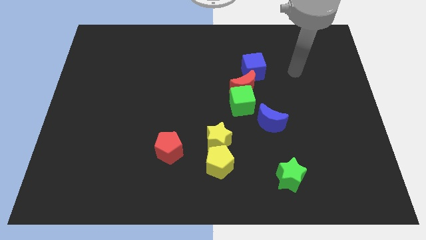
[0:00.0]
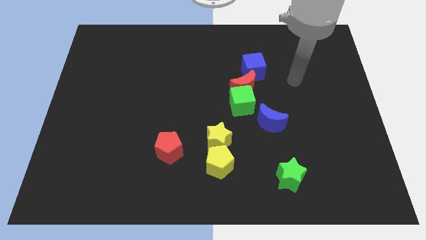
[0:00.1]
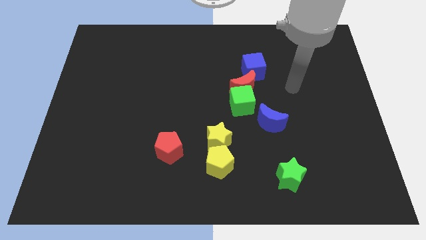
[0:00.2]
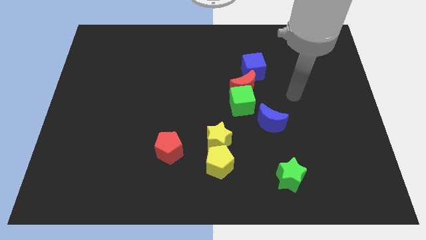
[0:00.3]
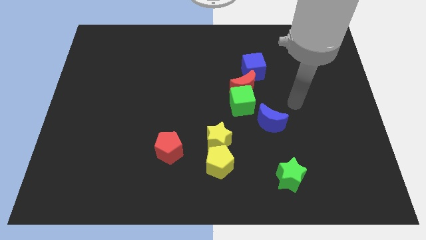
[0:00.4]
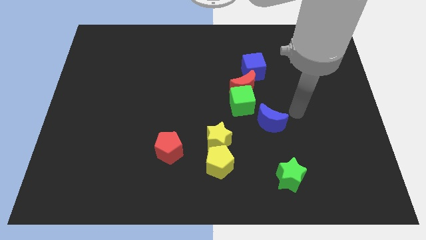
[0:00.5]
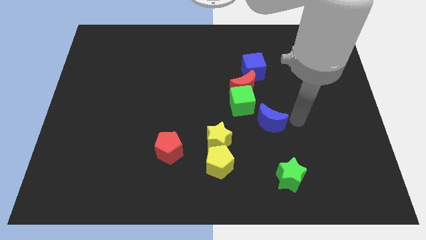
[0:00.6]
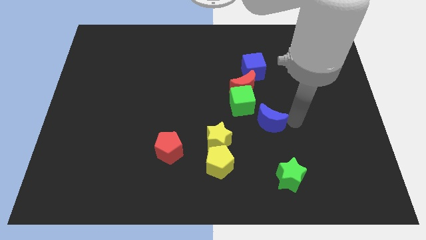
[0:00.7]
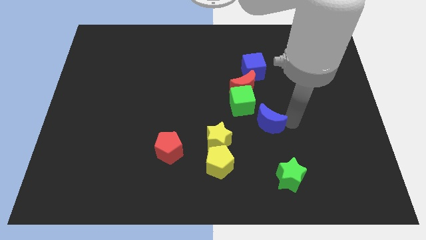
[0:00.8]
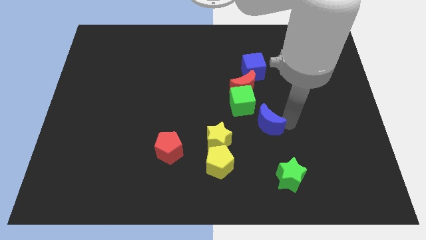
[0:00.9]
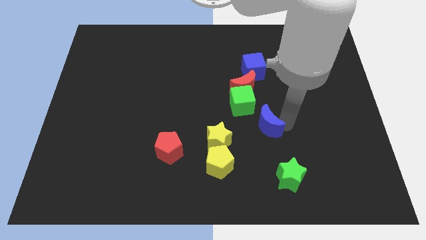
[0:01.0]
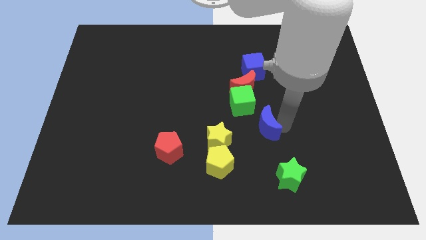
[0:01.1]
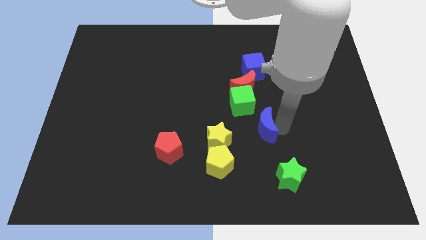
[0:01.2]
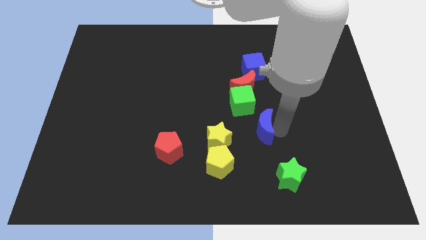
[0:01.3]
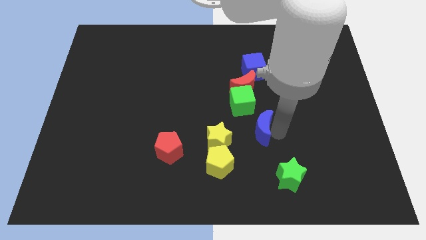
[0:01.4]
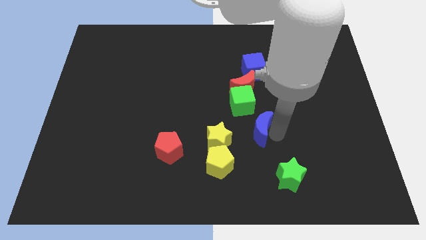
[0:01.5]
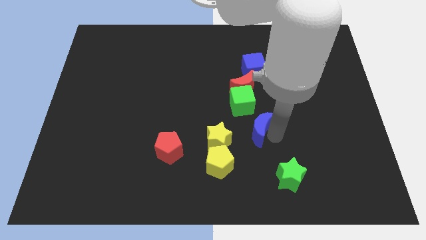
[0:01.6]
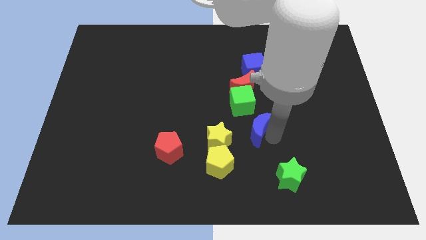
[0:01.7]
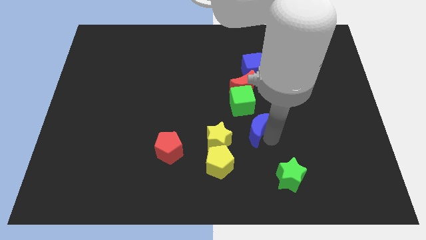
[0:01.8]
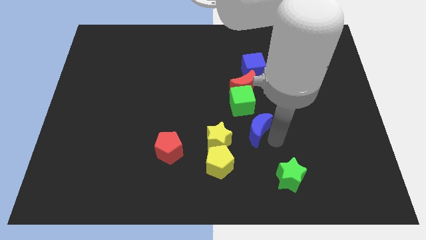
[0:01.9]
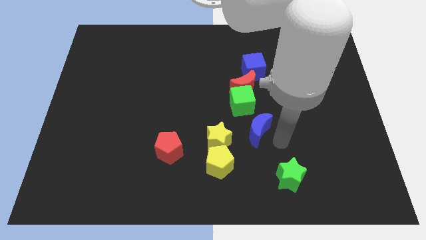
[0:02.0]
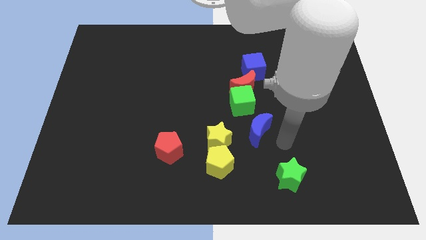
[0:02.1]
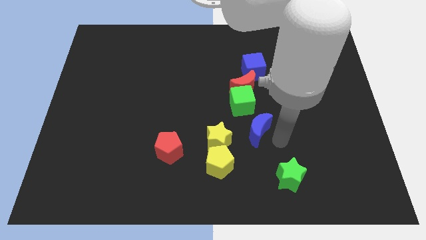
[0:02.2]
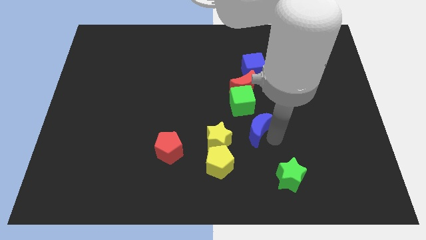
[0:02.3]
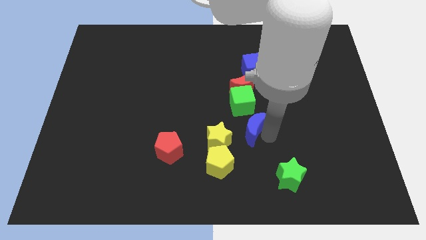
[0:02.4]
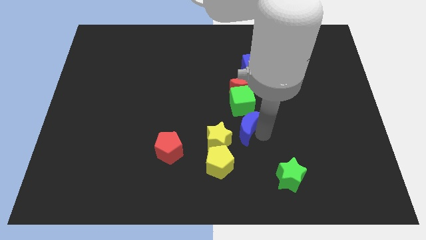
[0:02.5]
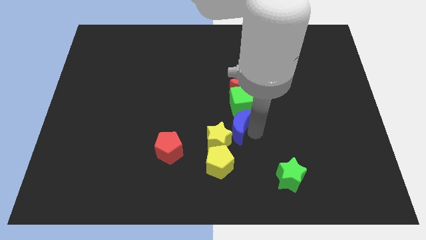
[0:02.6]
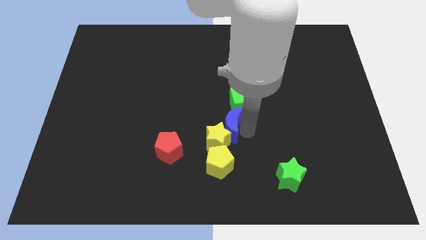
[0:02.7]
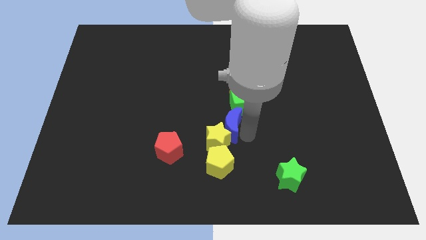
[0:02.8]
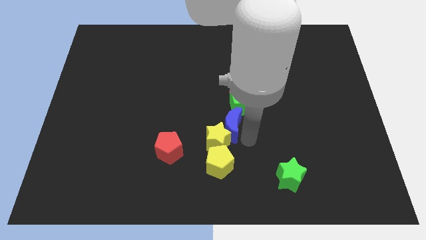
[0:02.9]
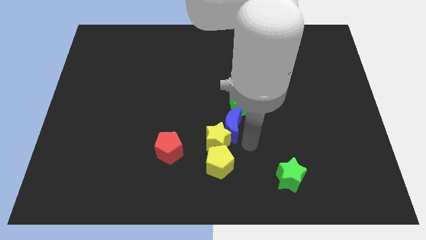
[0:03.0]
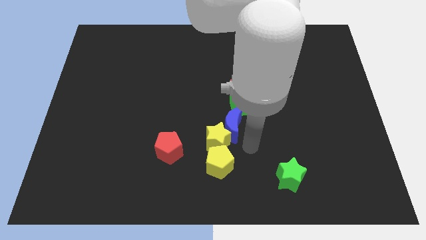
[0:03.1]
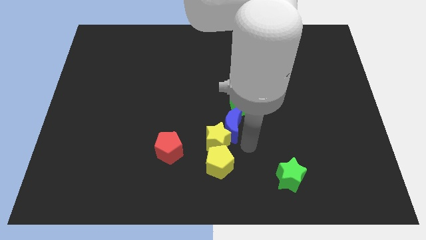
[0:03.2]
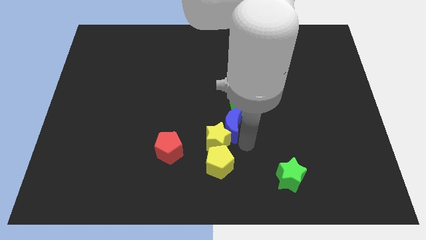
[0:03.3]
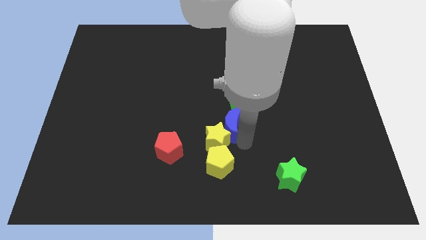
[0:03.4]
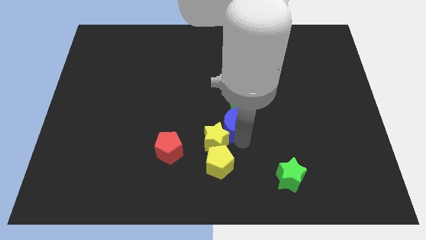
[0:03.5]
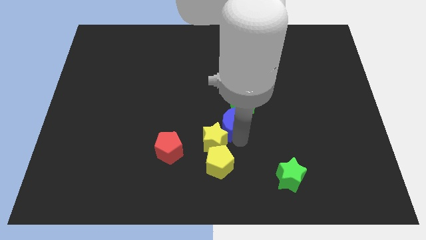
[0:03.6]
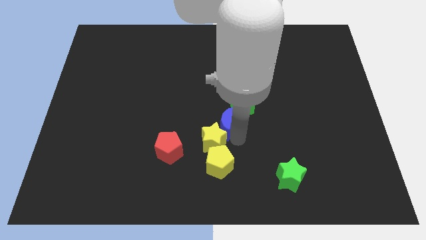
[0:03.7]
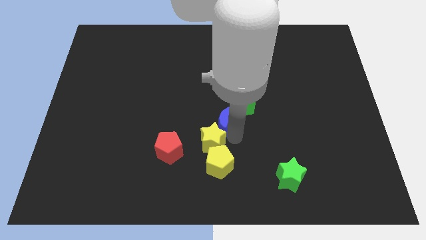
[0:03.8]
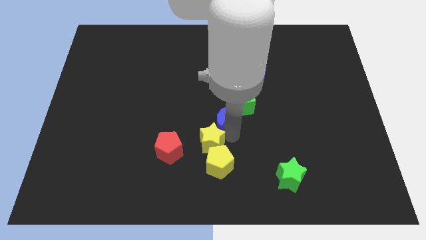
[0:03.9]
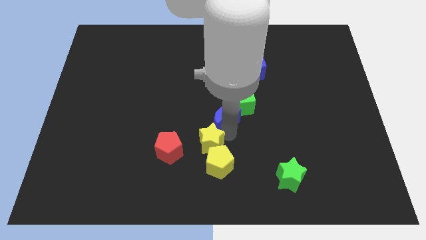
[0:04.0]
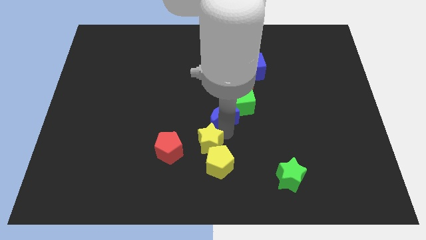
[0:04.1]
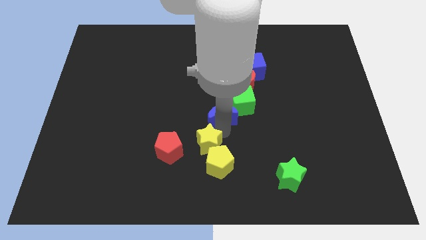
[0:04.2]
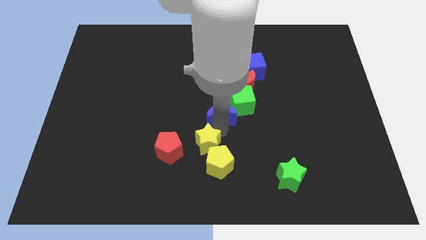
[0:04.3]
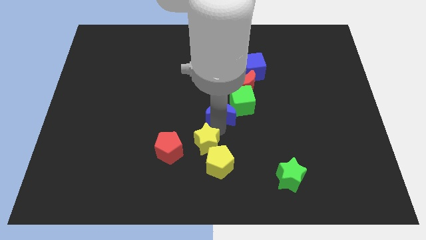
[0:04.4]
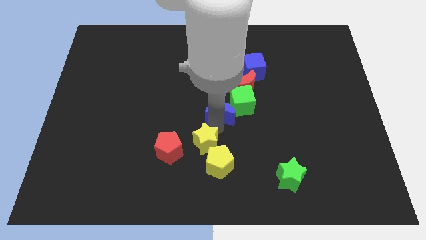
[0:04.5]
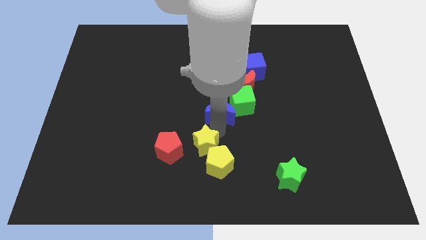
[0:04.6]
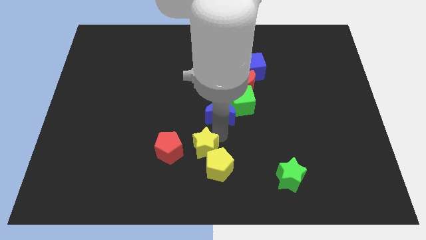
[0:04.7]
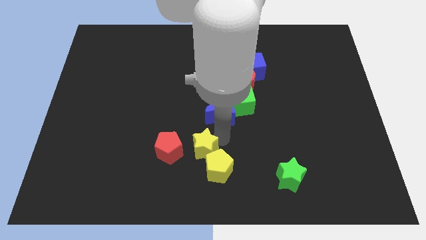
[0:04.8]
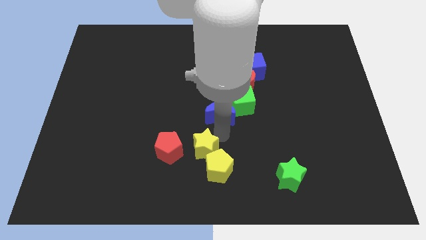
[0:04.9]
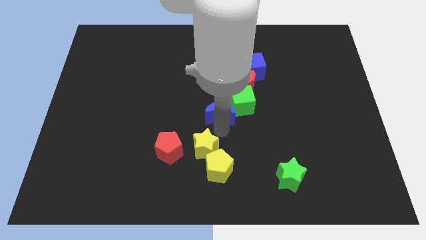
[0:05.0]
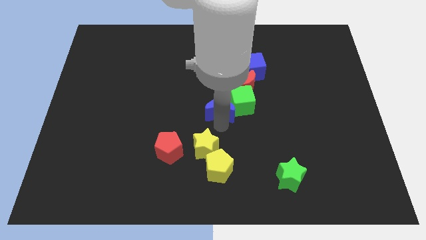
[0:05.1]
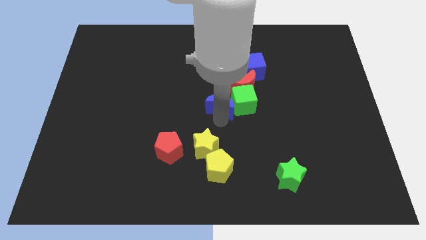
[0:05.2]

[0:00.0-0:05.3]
move the blue moon to the top left side of the green cube

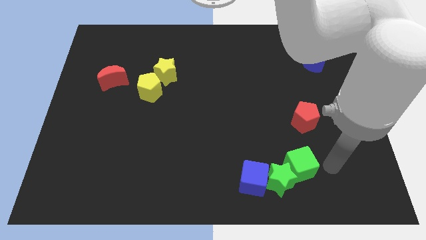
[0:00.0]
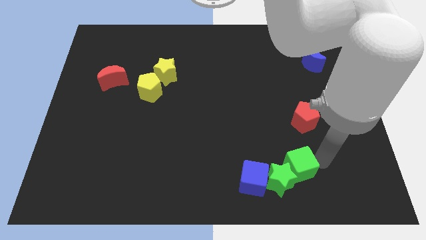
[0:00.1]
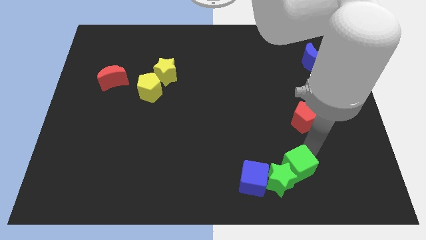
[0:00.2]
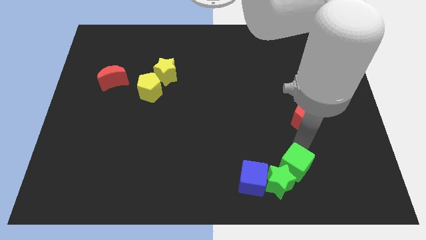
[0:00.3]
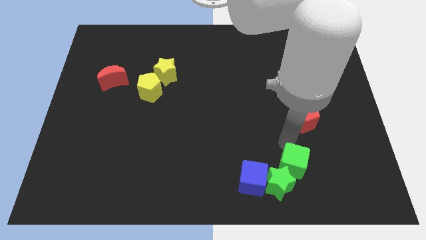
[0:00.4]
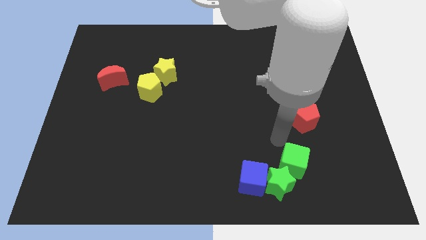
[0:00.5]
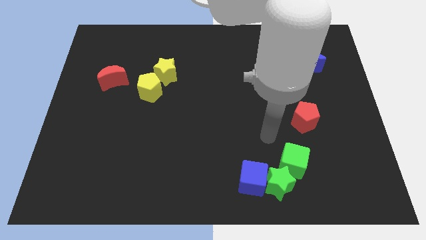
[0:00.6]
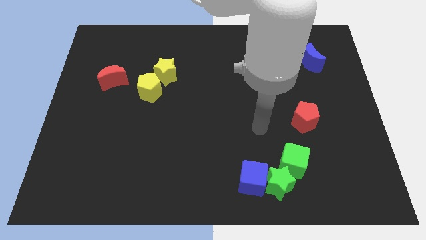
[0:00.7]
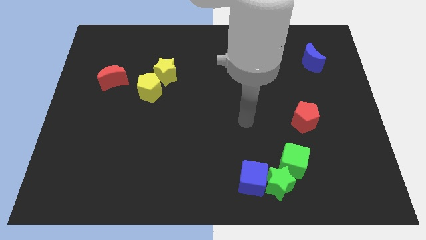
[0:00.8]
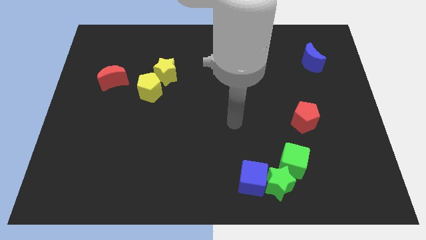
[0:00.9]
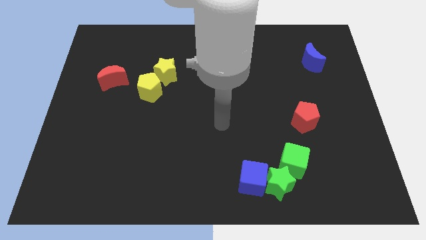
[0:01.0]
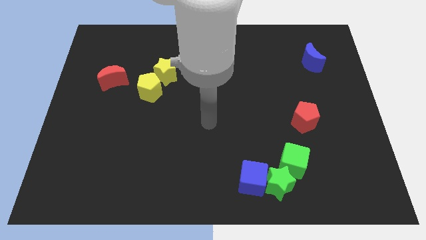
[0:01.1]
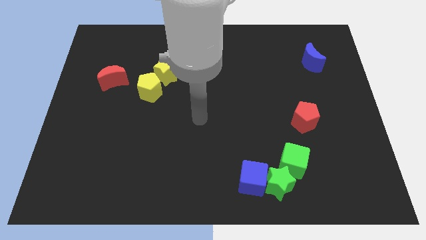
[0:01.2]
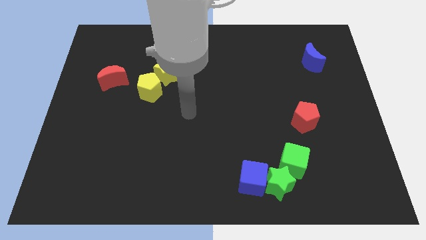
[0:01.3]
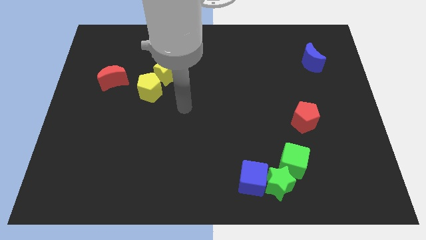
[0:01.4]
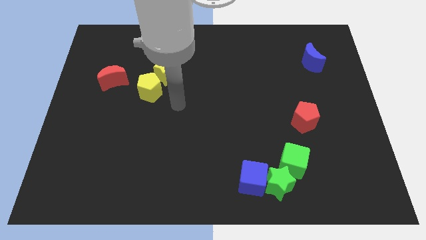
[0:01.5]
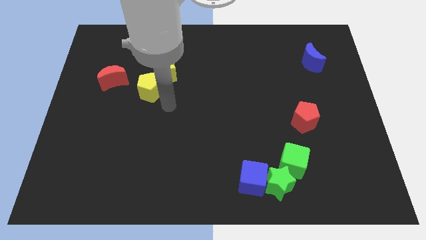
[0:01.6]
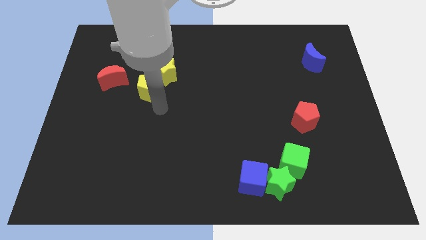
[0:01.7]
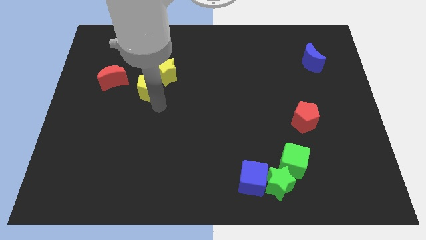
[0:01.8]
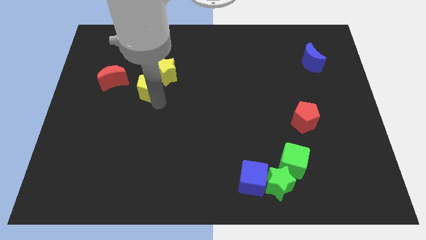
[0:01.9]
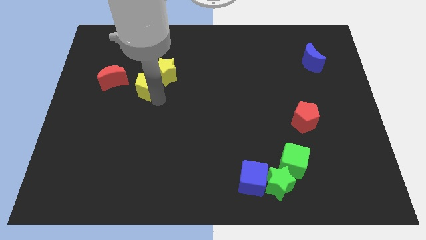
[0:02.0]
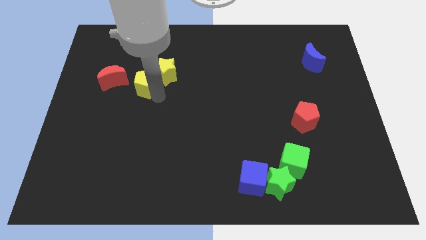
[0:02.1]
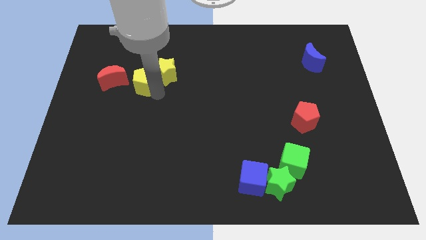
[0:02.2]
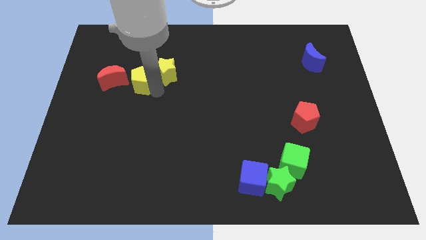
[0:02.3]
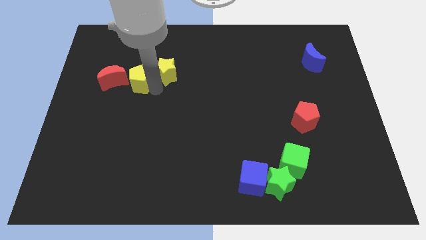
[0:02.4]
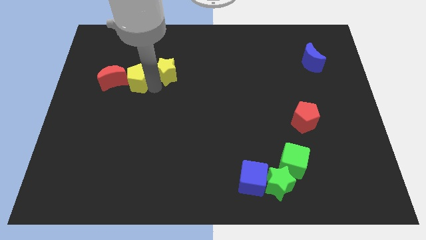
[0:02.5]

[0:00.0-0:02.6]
push the yellow pentagon to the top right of the red moon
